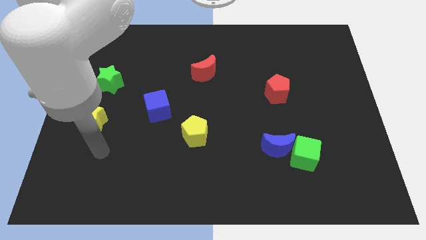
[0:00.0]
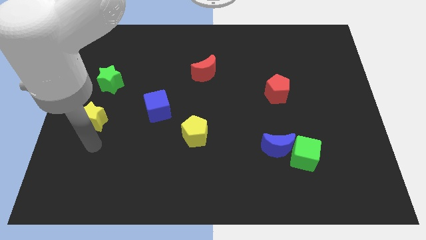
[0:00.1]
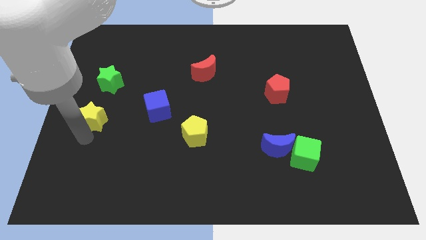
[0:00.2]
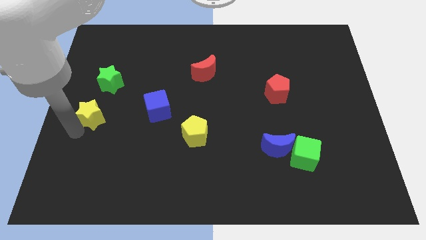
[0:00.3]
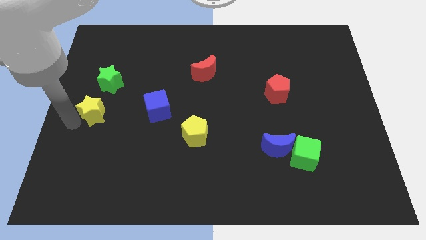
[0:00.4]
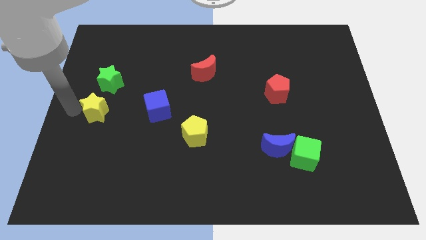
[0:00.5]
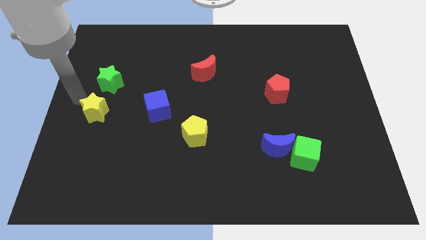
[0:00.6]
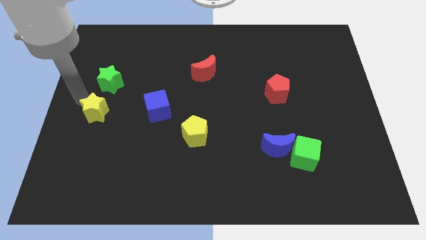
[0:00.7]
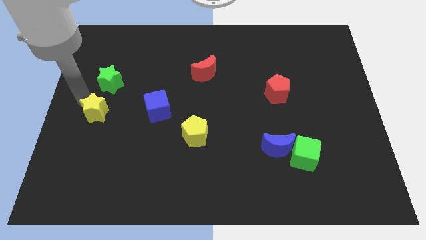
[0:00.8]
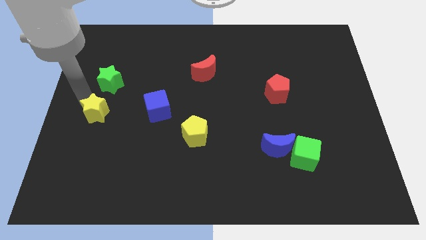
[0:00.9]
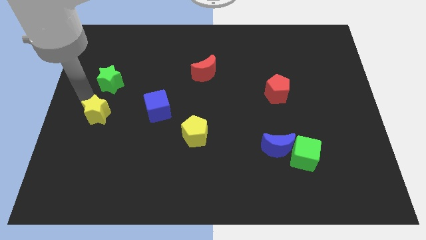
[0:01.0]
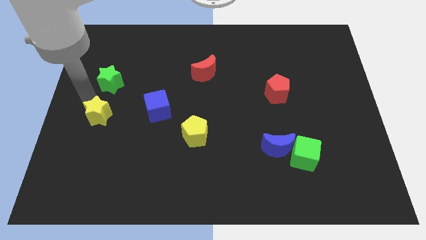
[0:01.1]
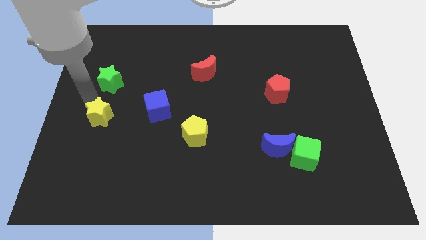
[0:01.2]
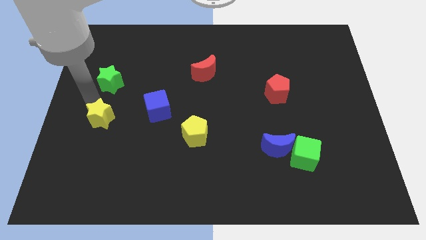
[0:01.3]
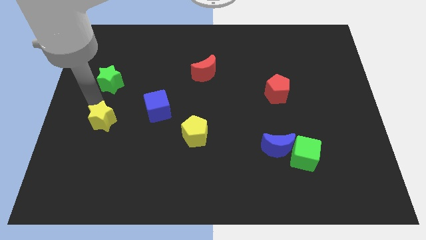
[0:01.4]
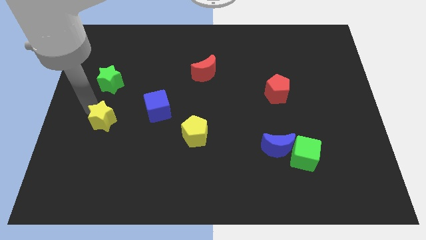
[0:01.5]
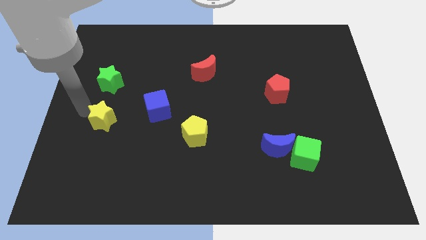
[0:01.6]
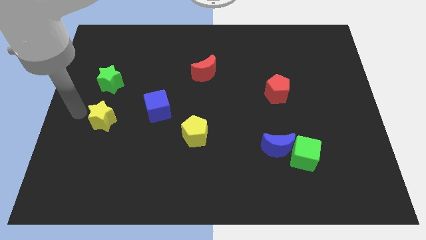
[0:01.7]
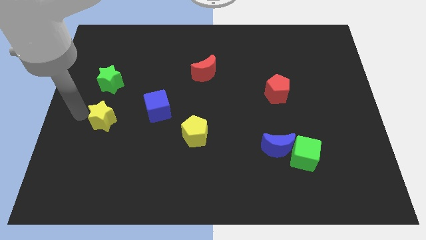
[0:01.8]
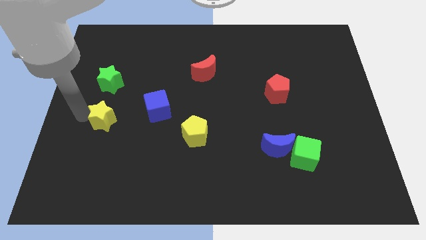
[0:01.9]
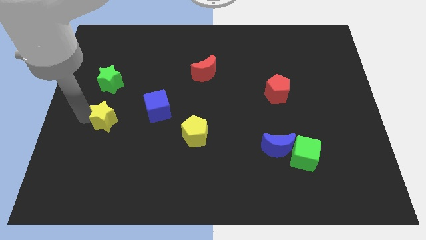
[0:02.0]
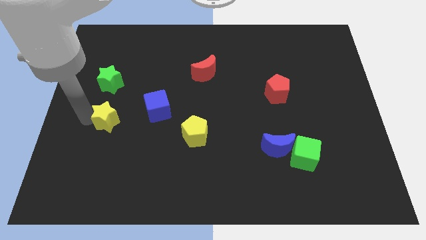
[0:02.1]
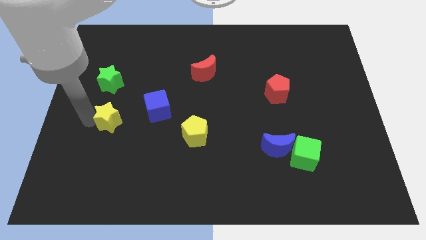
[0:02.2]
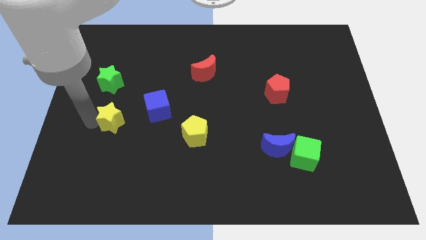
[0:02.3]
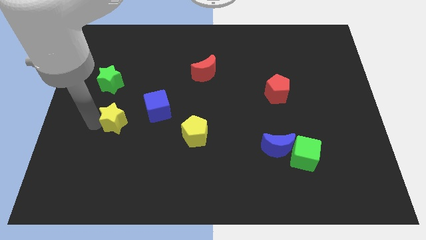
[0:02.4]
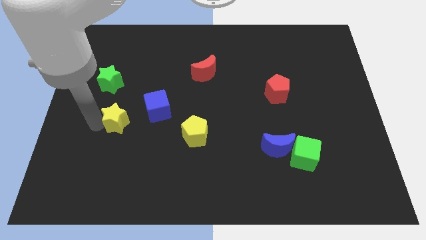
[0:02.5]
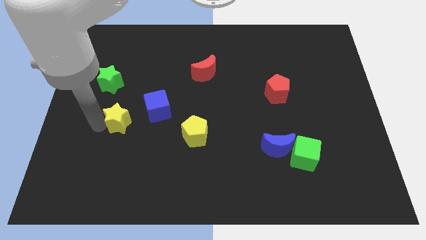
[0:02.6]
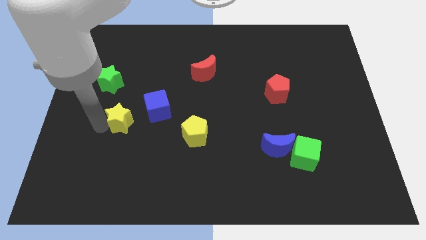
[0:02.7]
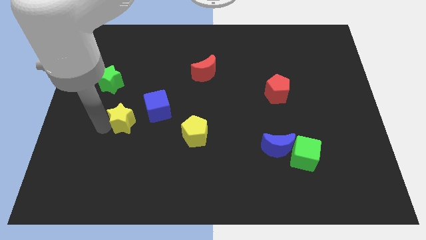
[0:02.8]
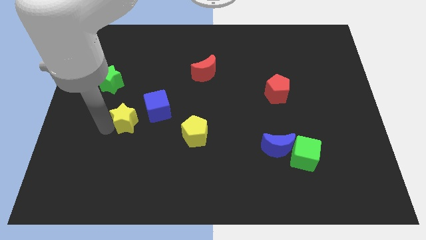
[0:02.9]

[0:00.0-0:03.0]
slide the yellow star right a bit

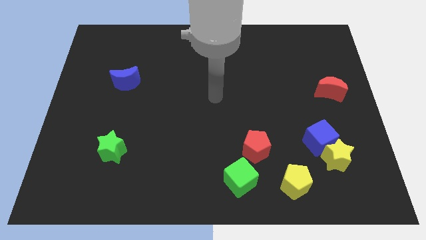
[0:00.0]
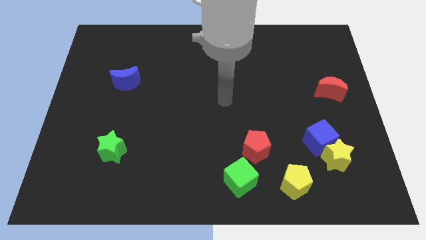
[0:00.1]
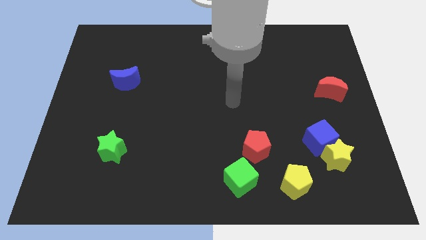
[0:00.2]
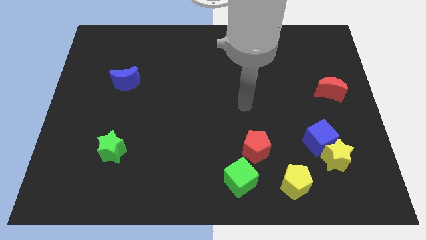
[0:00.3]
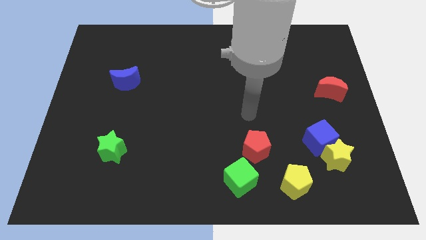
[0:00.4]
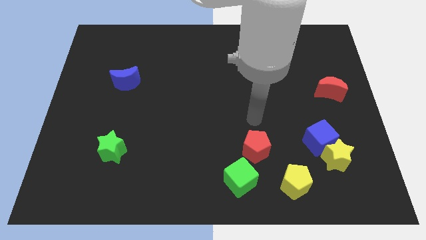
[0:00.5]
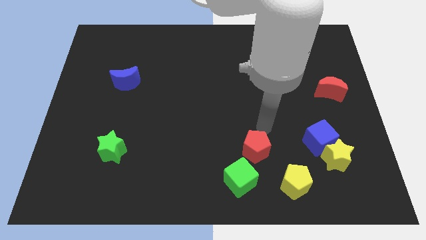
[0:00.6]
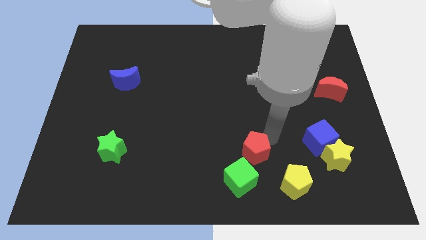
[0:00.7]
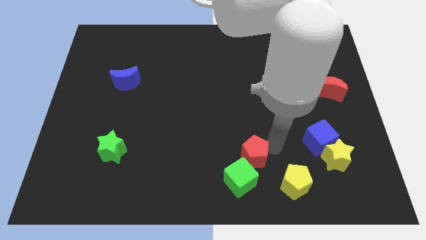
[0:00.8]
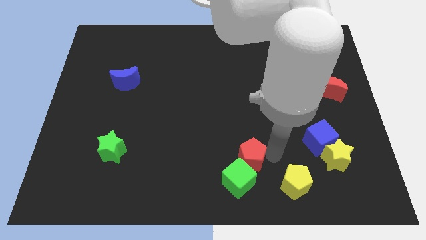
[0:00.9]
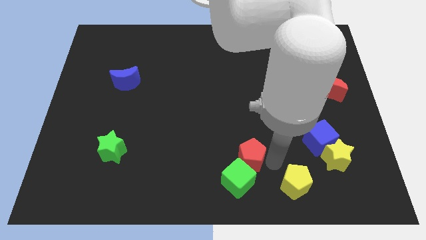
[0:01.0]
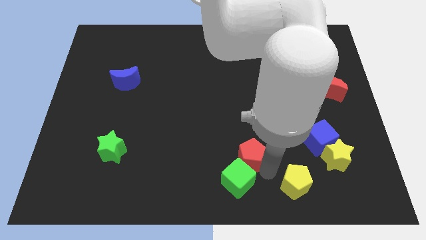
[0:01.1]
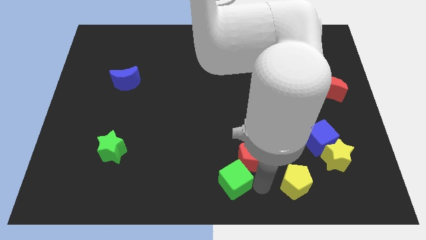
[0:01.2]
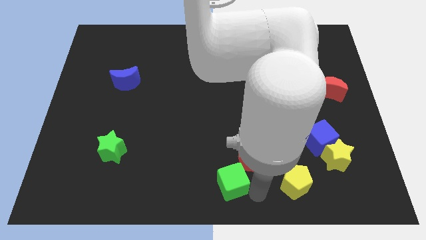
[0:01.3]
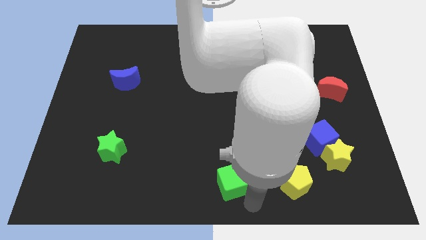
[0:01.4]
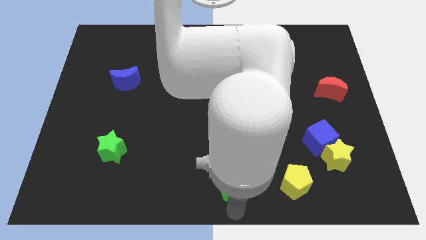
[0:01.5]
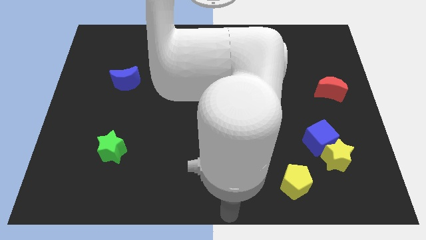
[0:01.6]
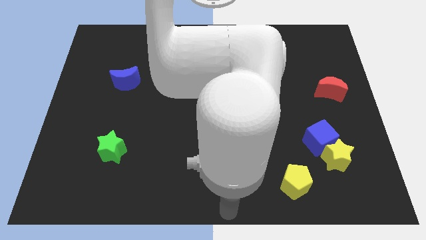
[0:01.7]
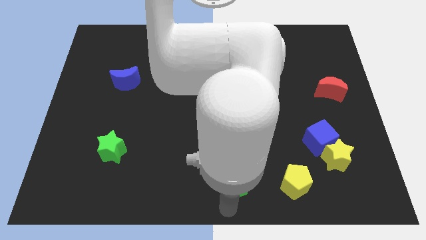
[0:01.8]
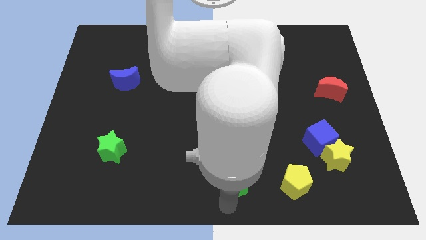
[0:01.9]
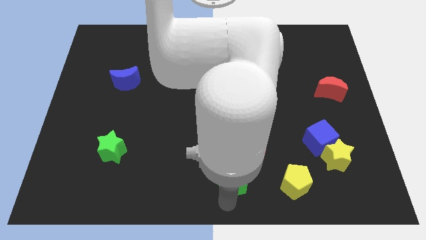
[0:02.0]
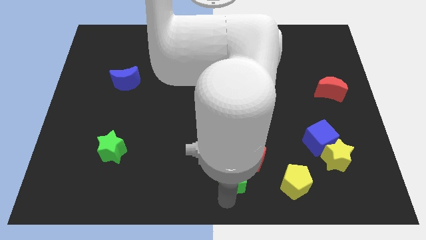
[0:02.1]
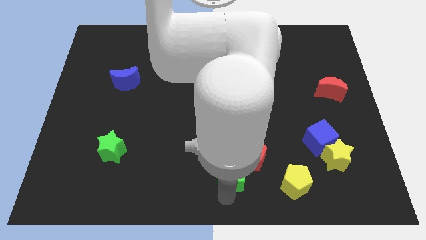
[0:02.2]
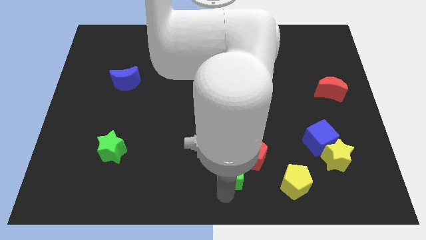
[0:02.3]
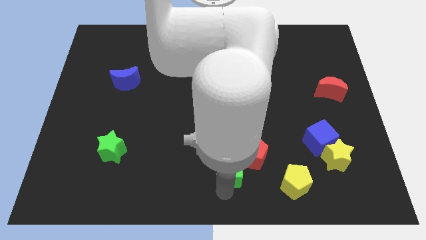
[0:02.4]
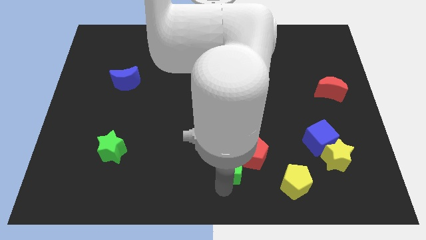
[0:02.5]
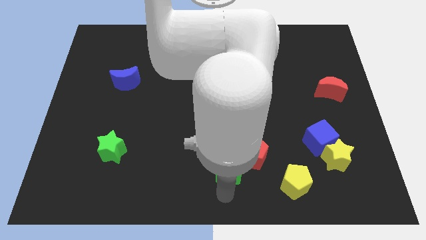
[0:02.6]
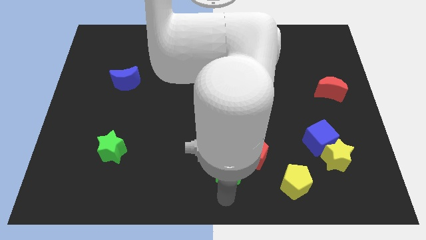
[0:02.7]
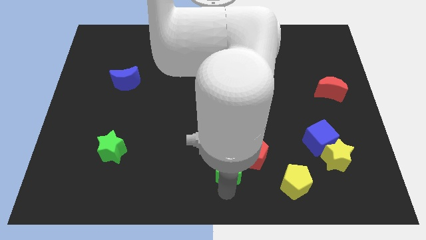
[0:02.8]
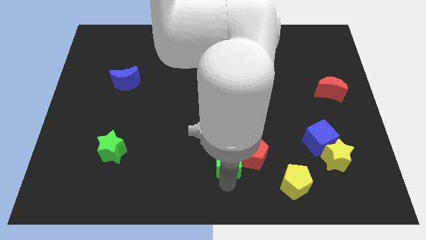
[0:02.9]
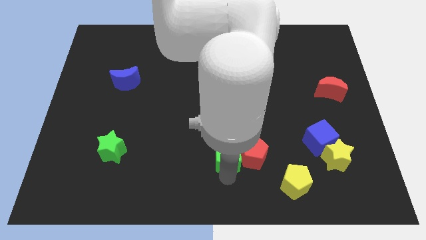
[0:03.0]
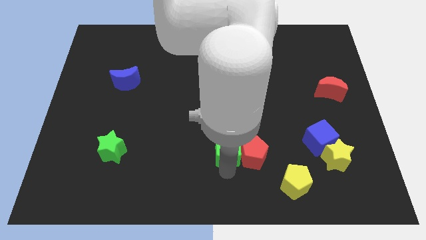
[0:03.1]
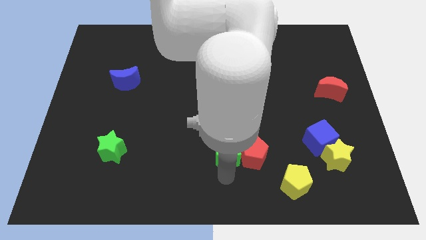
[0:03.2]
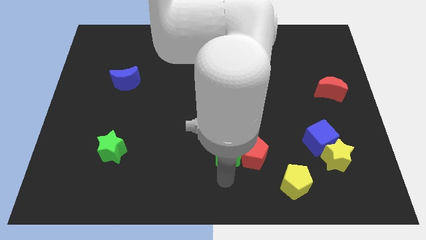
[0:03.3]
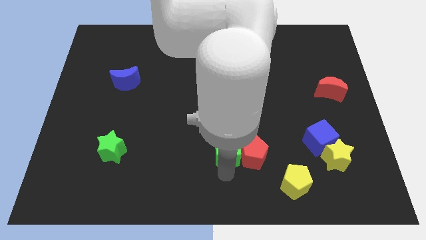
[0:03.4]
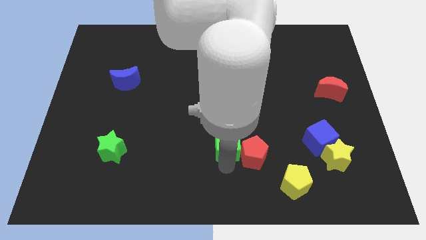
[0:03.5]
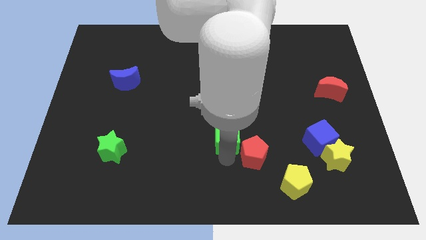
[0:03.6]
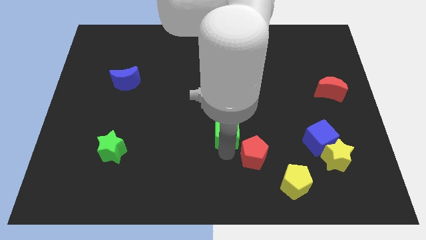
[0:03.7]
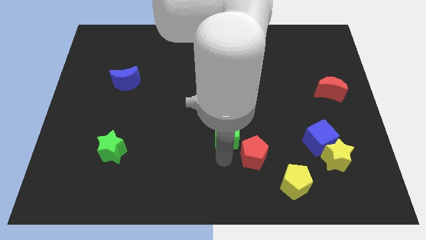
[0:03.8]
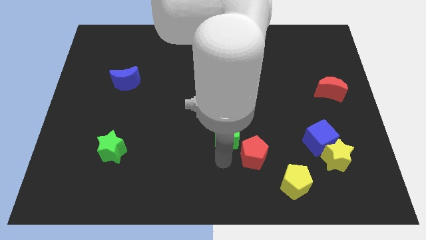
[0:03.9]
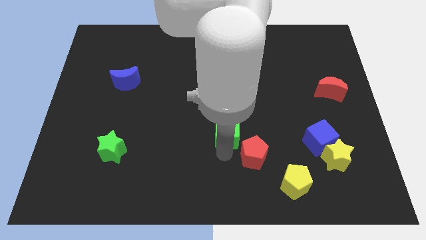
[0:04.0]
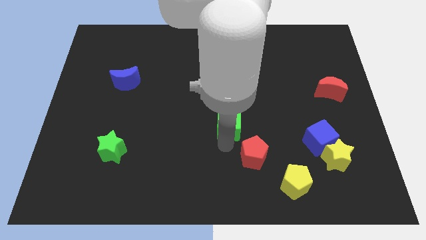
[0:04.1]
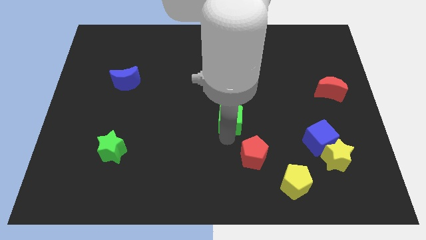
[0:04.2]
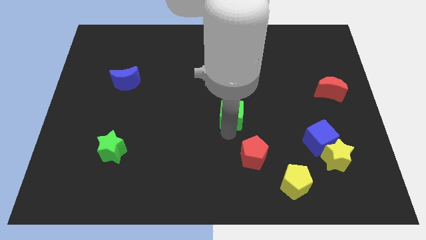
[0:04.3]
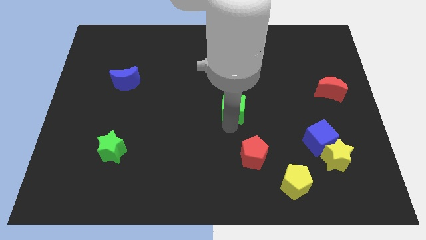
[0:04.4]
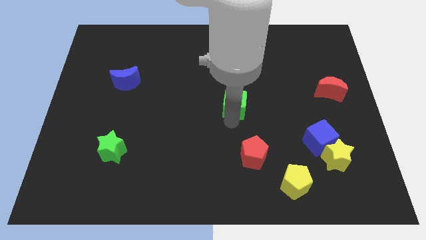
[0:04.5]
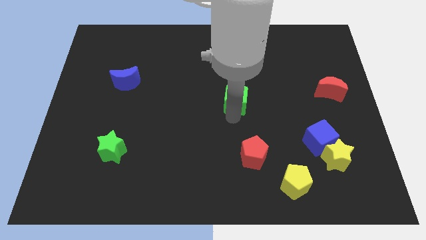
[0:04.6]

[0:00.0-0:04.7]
move the green cube upwards

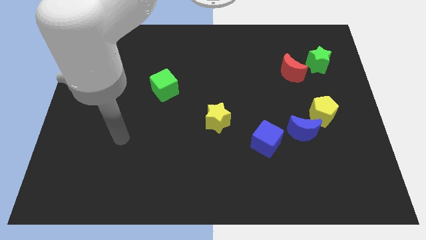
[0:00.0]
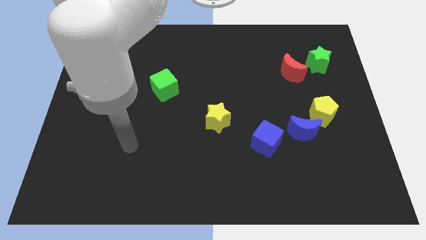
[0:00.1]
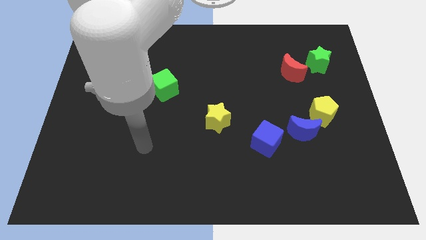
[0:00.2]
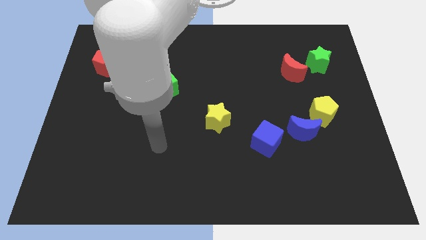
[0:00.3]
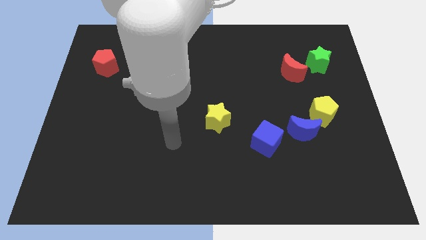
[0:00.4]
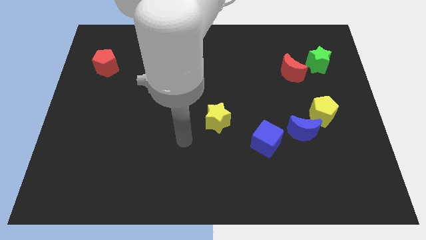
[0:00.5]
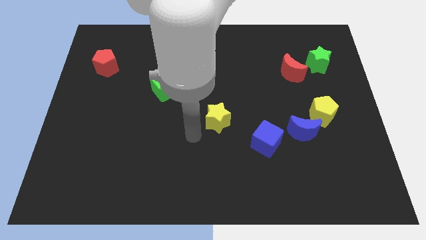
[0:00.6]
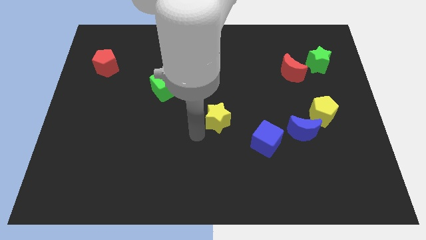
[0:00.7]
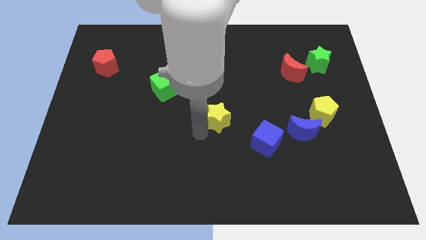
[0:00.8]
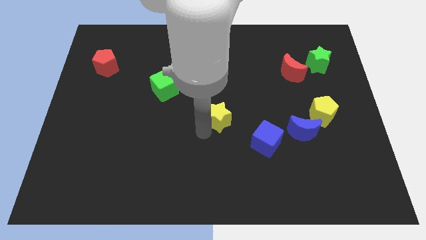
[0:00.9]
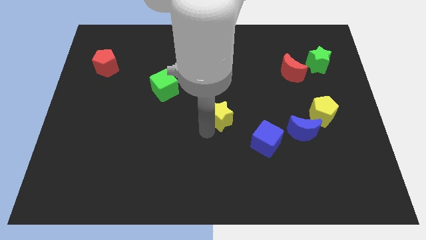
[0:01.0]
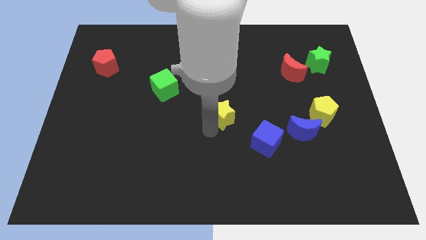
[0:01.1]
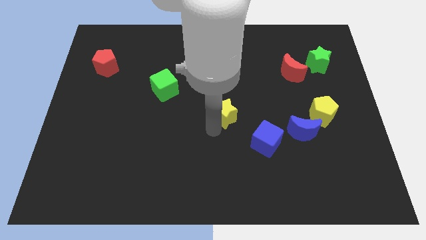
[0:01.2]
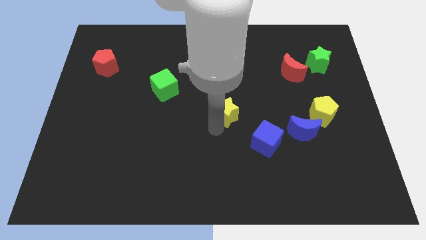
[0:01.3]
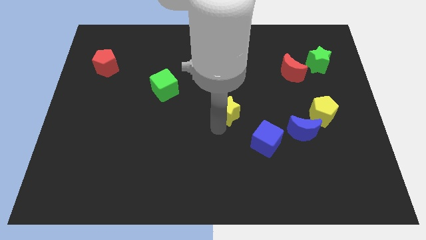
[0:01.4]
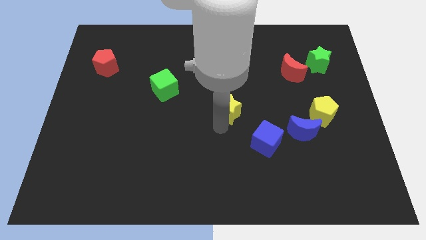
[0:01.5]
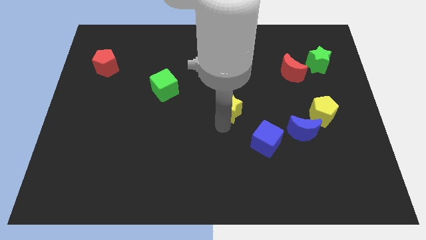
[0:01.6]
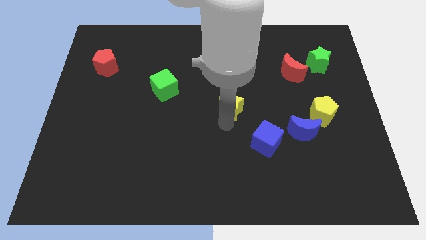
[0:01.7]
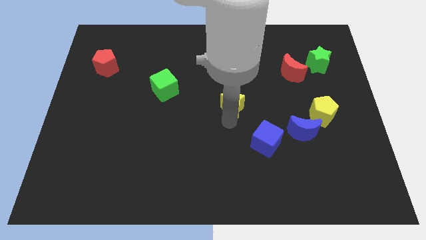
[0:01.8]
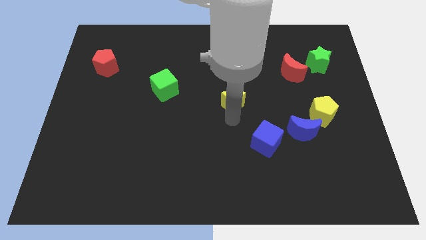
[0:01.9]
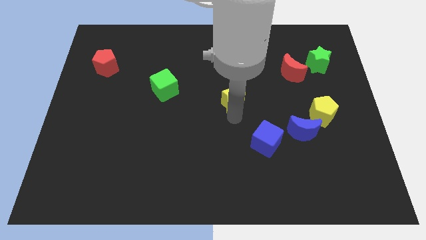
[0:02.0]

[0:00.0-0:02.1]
slightly slide the yellow star upwards and to the right diagonally
